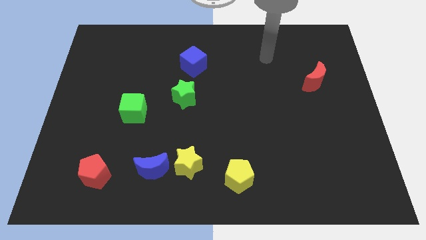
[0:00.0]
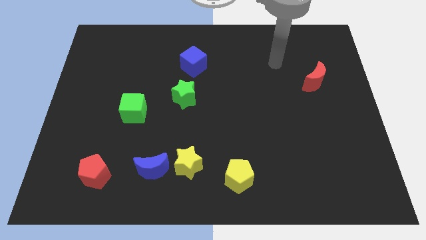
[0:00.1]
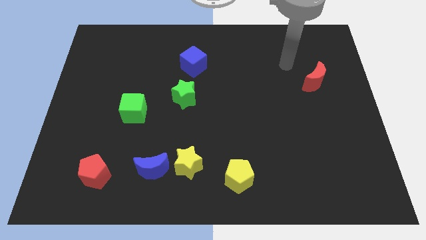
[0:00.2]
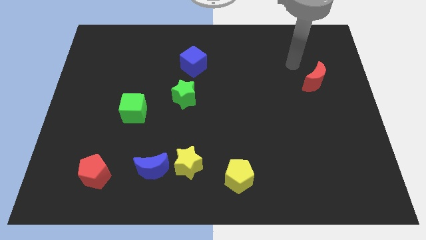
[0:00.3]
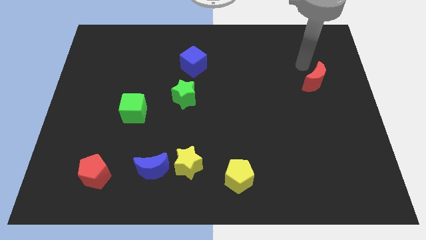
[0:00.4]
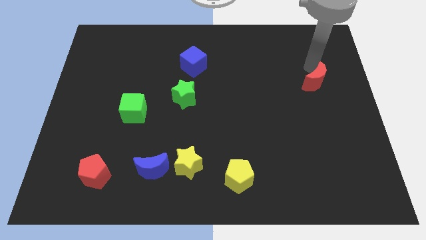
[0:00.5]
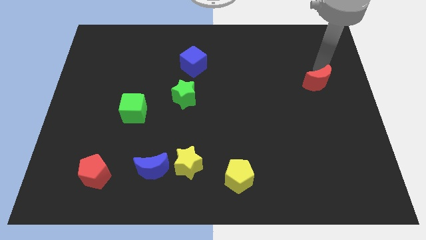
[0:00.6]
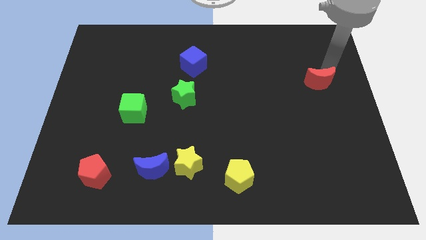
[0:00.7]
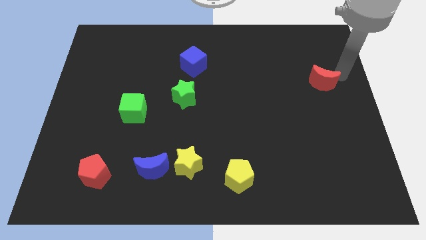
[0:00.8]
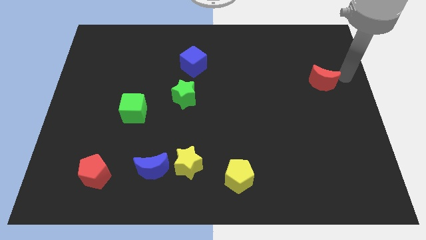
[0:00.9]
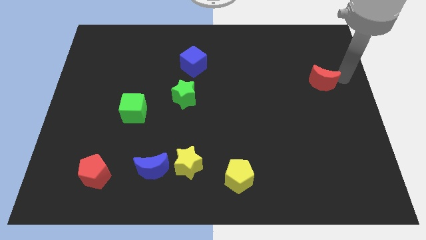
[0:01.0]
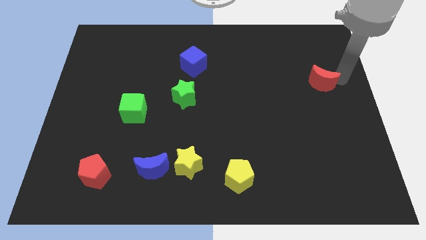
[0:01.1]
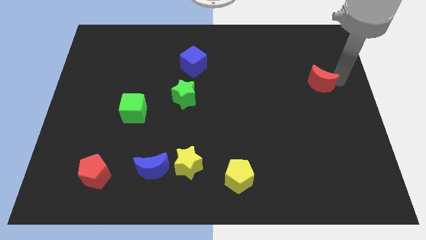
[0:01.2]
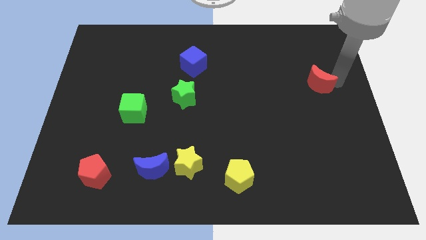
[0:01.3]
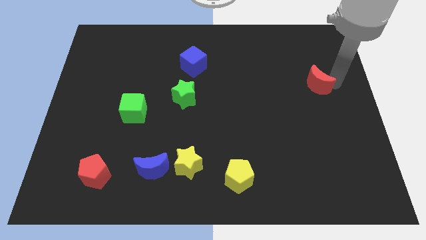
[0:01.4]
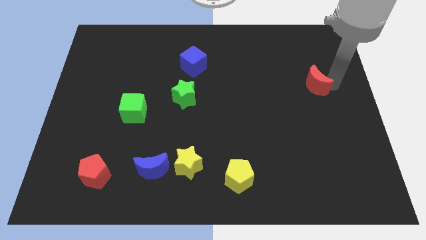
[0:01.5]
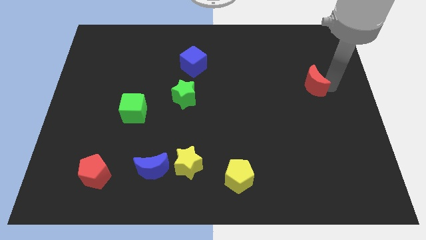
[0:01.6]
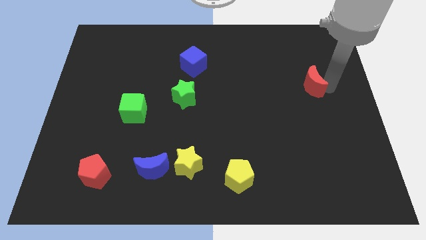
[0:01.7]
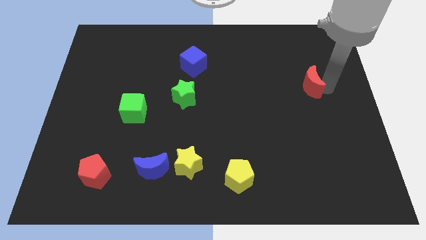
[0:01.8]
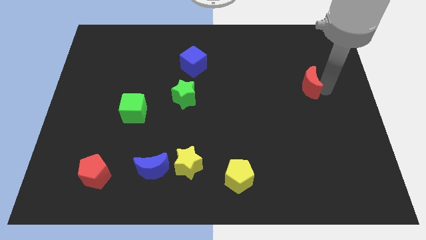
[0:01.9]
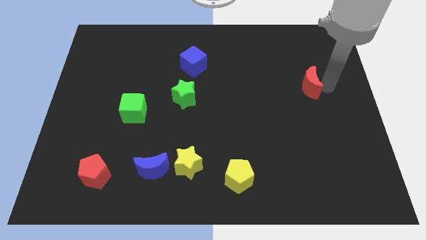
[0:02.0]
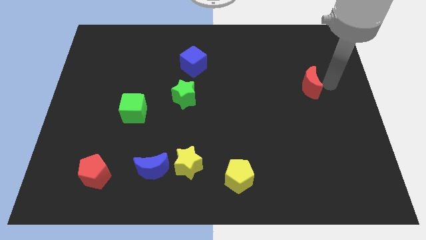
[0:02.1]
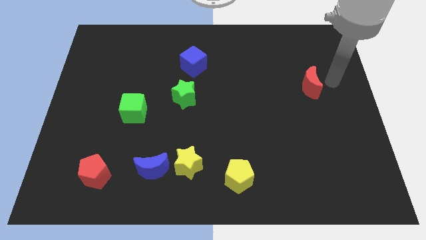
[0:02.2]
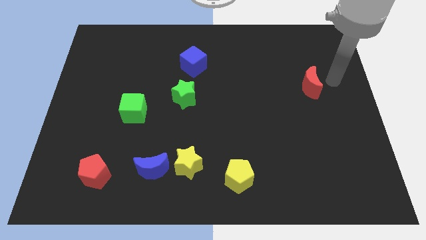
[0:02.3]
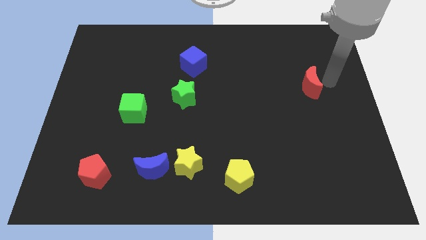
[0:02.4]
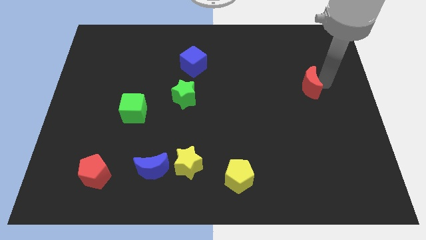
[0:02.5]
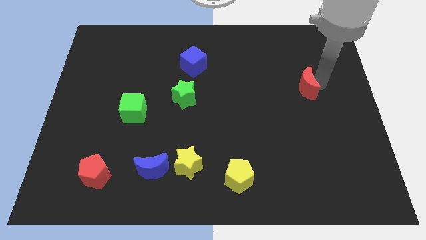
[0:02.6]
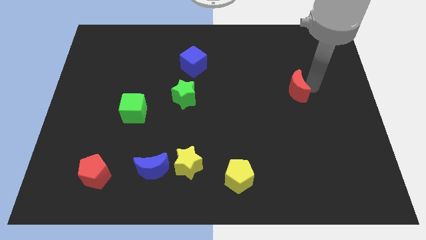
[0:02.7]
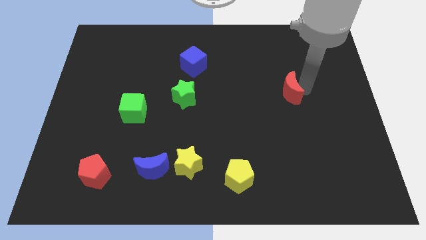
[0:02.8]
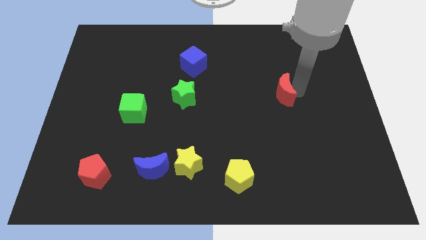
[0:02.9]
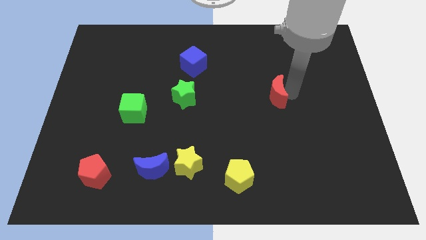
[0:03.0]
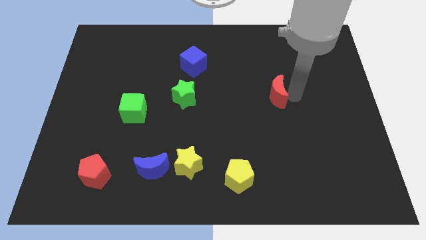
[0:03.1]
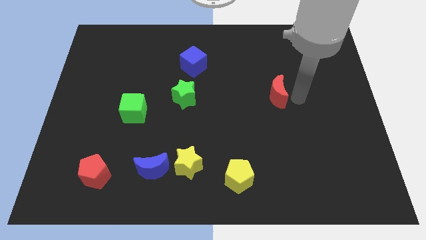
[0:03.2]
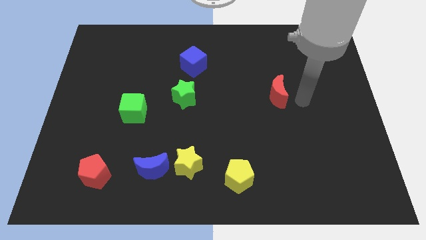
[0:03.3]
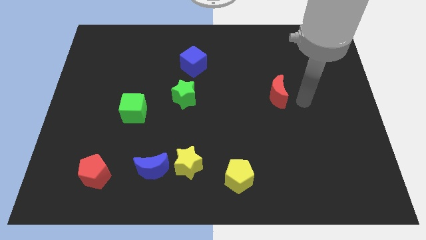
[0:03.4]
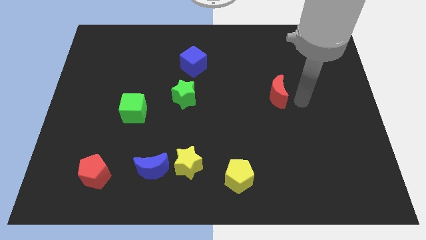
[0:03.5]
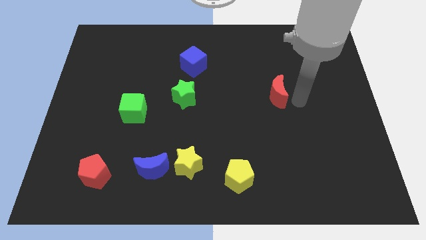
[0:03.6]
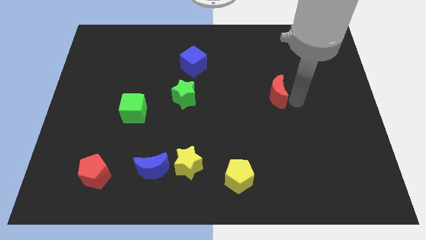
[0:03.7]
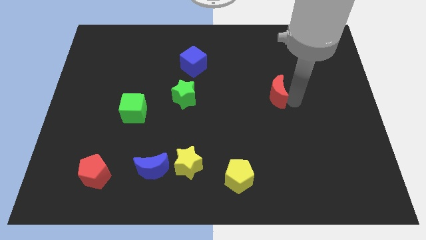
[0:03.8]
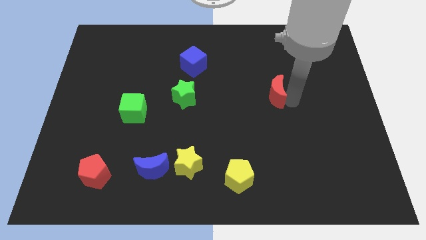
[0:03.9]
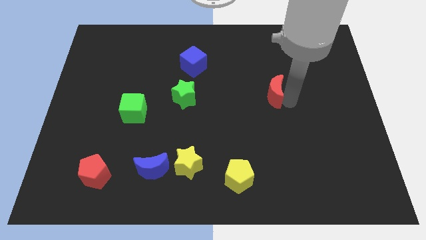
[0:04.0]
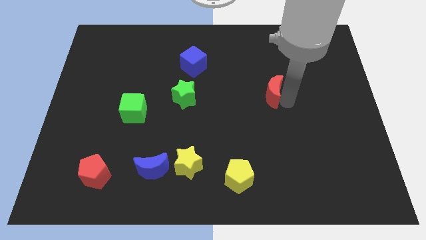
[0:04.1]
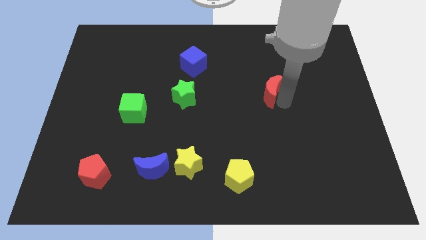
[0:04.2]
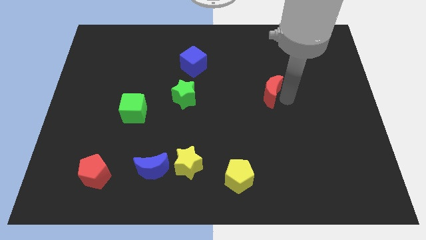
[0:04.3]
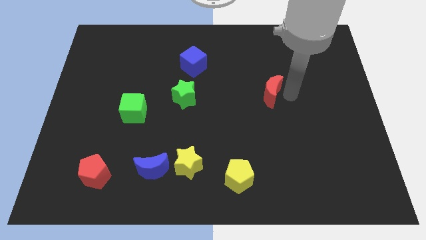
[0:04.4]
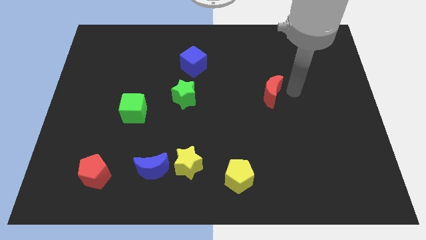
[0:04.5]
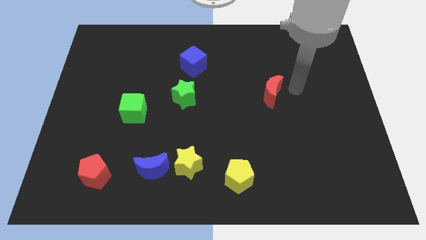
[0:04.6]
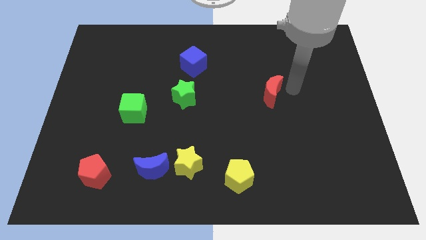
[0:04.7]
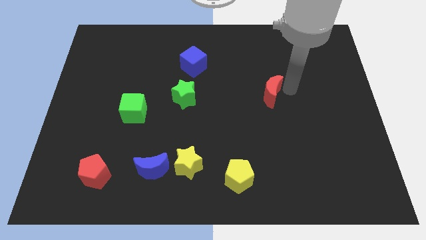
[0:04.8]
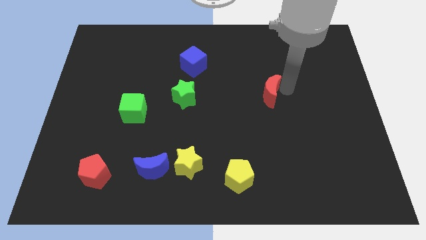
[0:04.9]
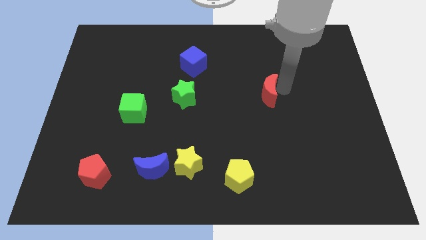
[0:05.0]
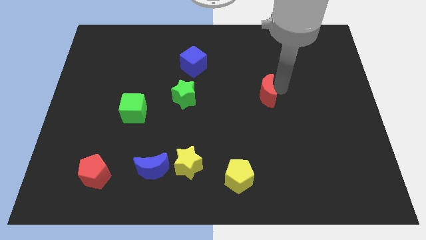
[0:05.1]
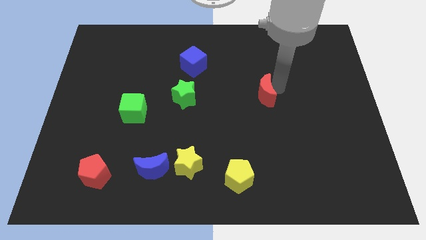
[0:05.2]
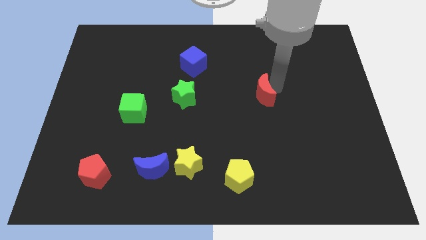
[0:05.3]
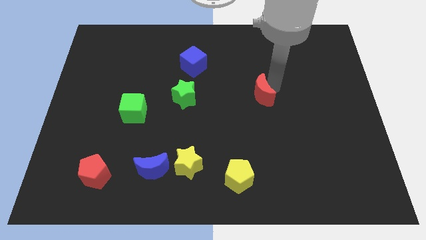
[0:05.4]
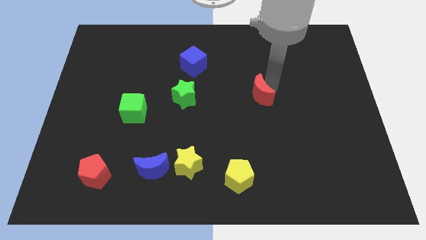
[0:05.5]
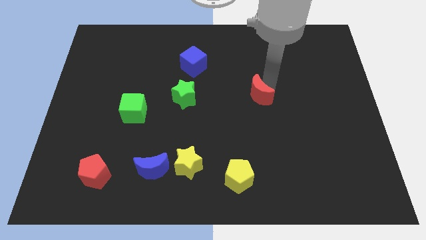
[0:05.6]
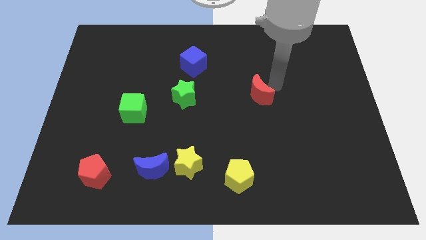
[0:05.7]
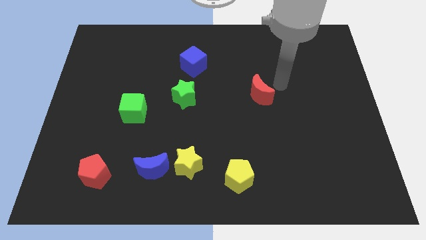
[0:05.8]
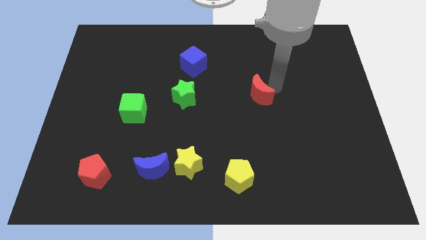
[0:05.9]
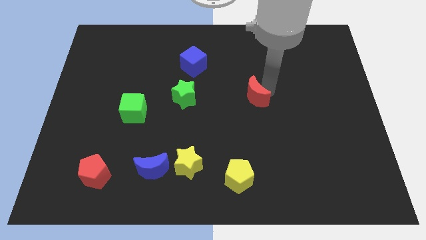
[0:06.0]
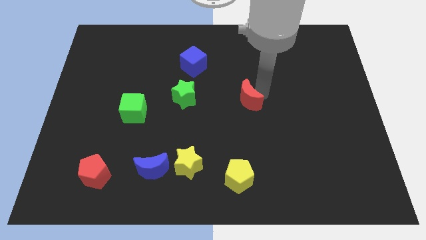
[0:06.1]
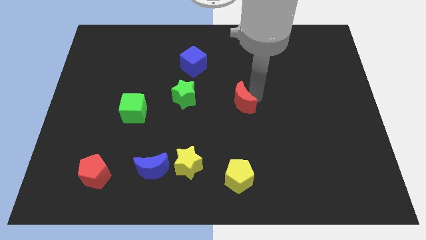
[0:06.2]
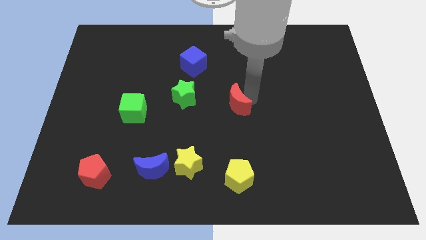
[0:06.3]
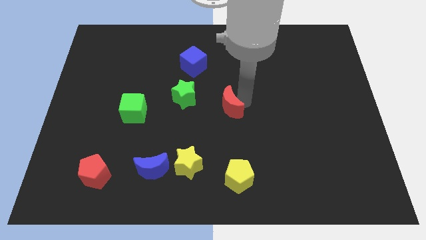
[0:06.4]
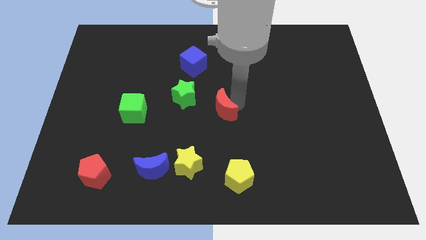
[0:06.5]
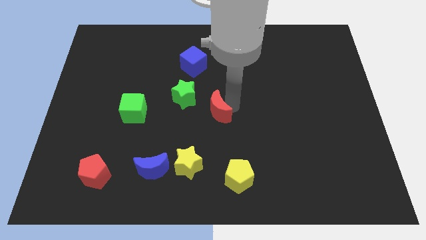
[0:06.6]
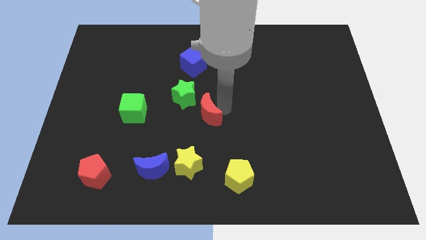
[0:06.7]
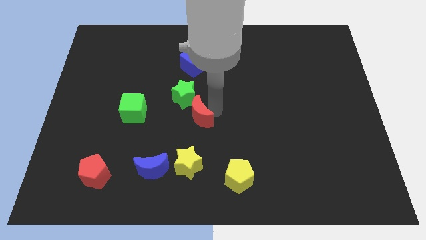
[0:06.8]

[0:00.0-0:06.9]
slide the red moon below the green star

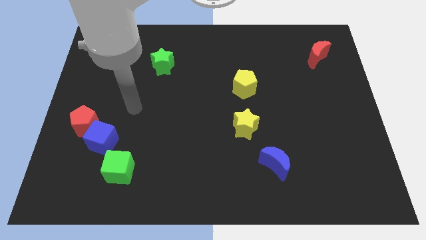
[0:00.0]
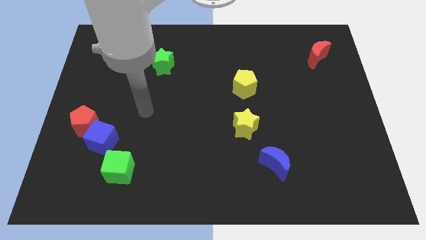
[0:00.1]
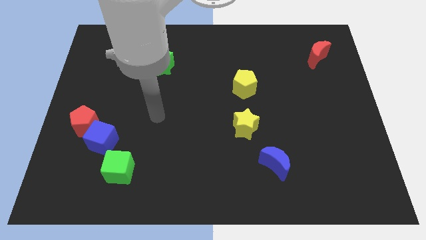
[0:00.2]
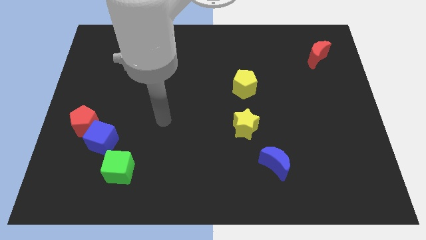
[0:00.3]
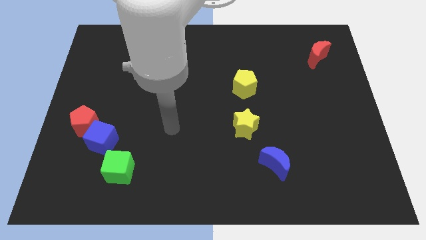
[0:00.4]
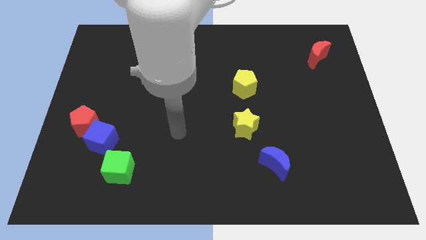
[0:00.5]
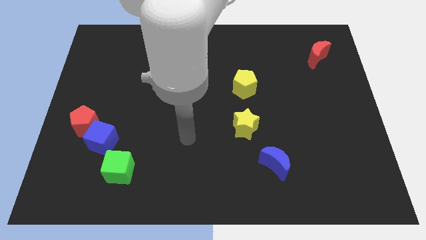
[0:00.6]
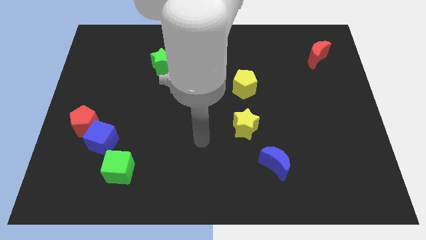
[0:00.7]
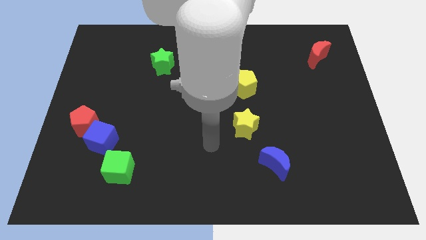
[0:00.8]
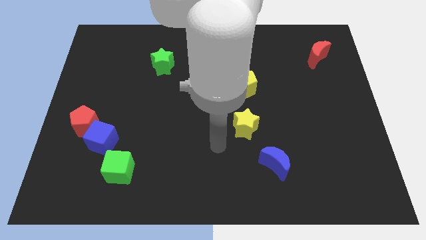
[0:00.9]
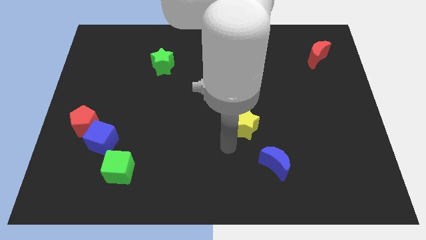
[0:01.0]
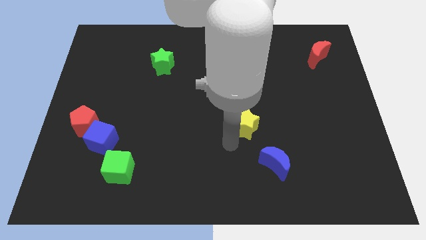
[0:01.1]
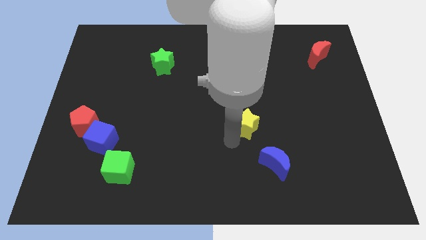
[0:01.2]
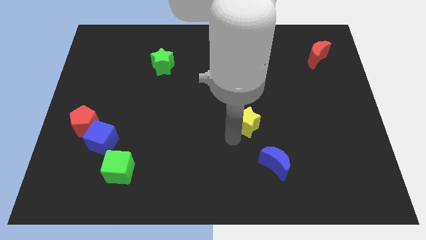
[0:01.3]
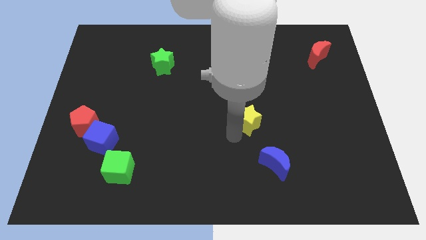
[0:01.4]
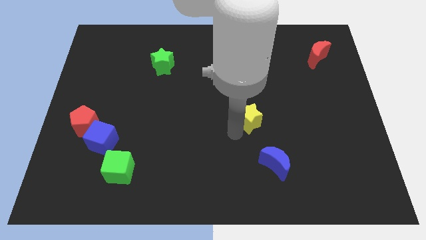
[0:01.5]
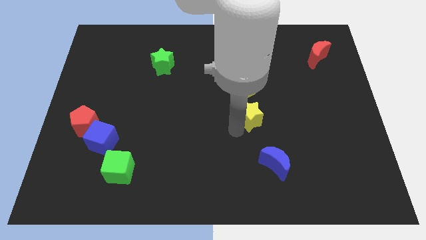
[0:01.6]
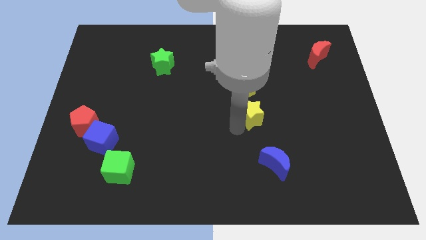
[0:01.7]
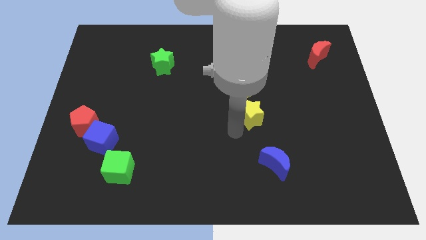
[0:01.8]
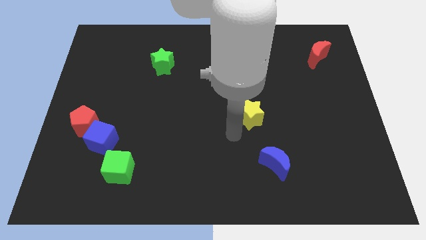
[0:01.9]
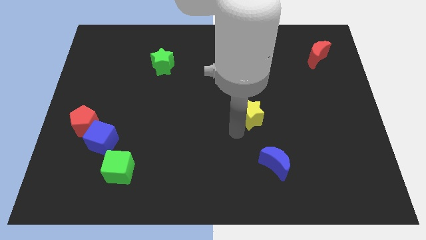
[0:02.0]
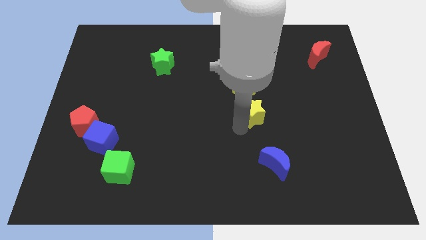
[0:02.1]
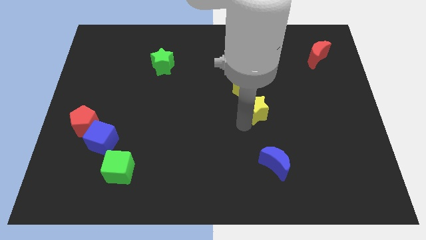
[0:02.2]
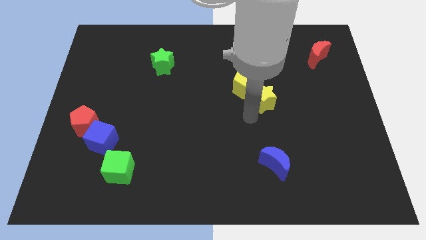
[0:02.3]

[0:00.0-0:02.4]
slide the yellow star to the right side of the yellow pentagon
